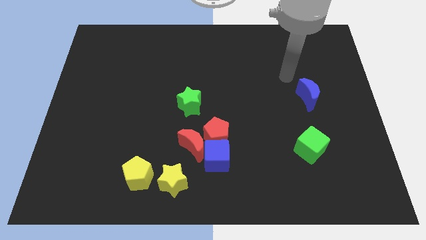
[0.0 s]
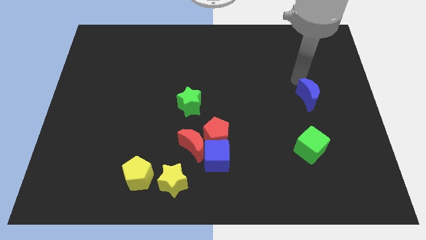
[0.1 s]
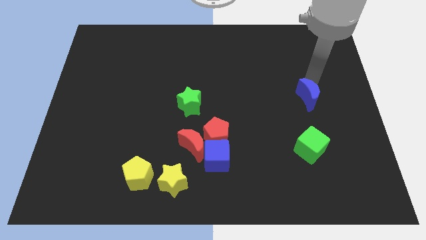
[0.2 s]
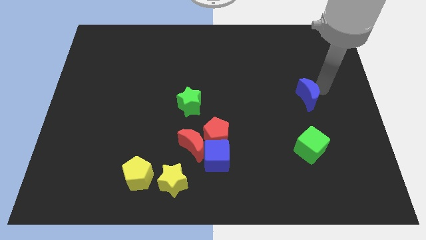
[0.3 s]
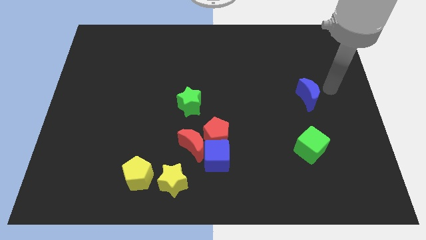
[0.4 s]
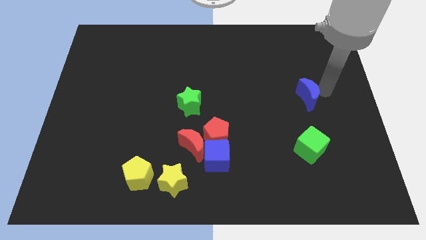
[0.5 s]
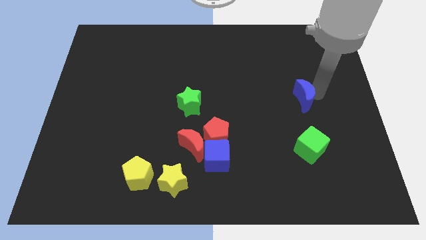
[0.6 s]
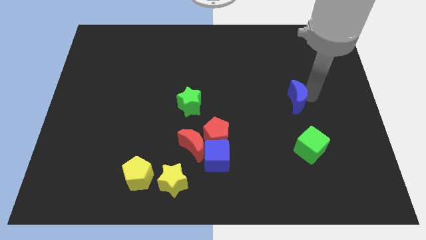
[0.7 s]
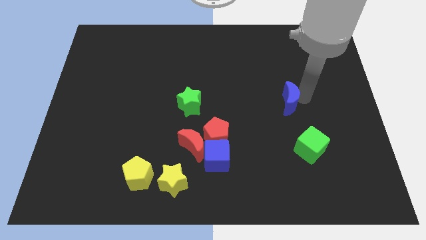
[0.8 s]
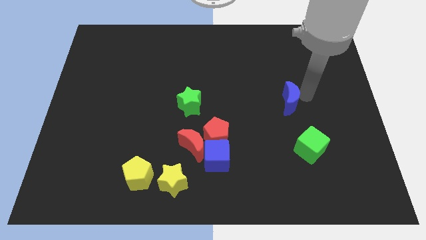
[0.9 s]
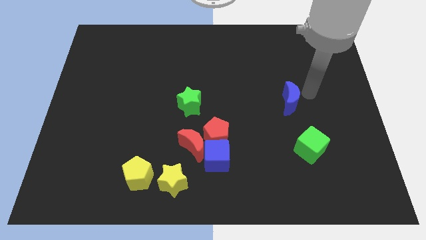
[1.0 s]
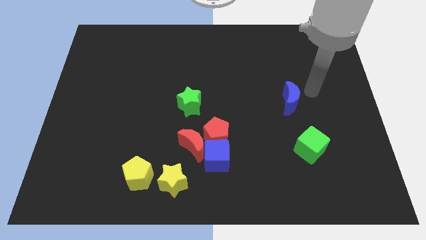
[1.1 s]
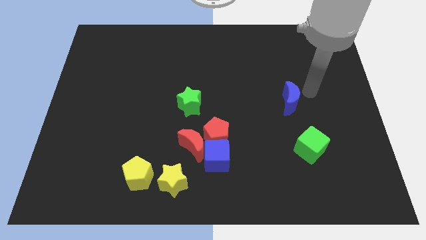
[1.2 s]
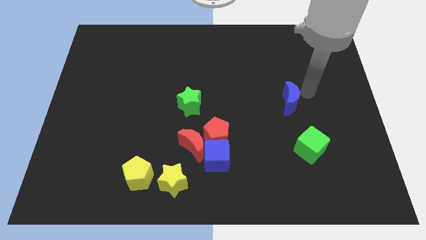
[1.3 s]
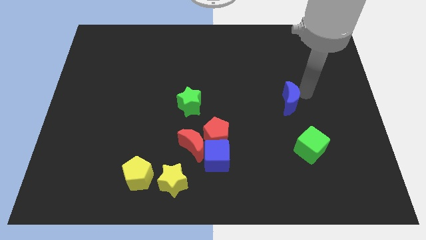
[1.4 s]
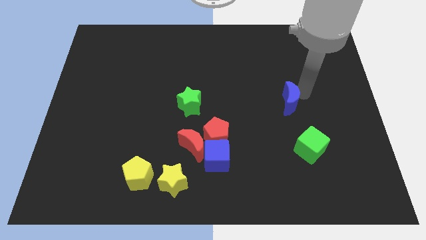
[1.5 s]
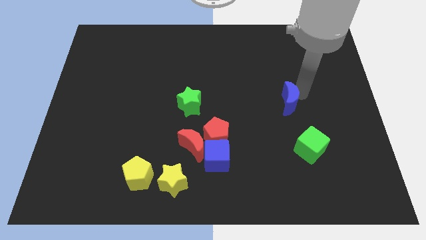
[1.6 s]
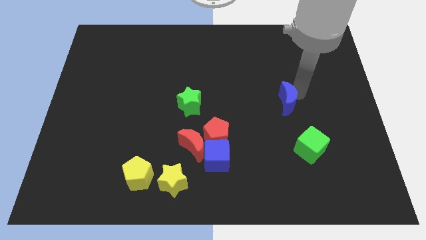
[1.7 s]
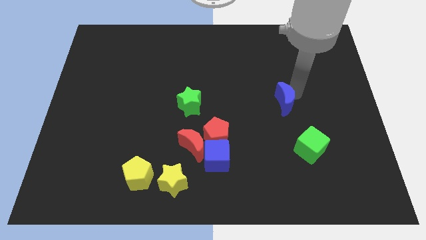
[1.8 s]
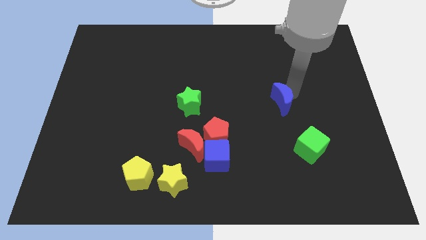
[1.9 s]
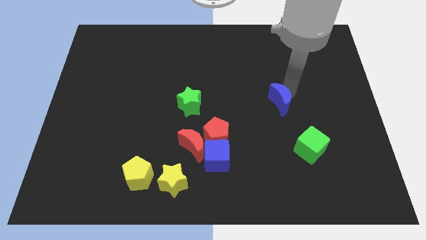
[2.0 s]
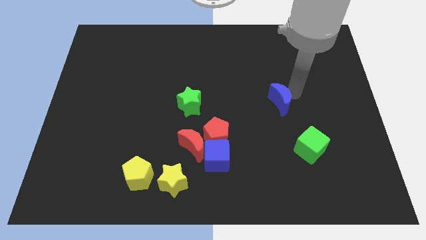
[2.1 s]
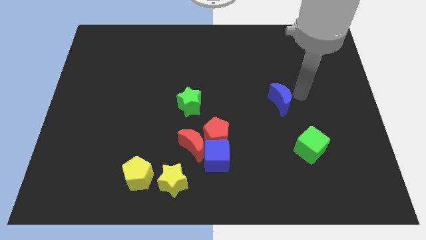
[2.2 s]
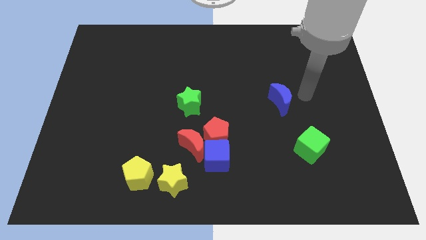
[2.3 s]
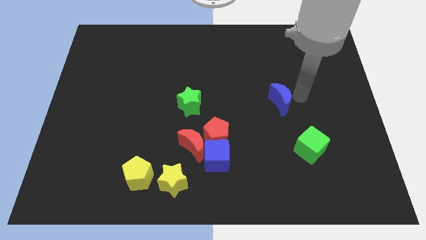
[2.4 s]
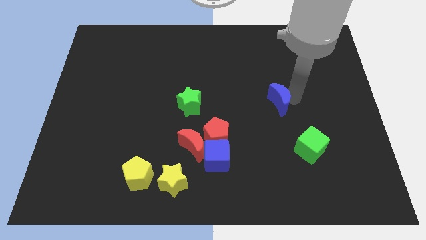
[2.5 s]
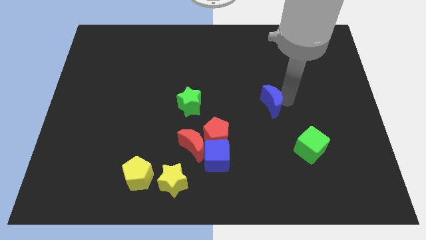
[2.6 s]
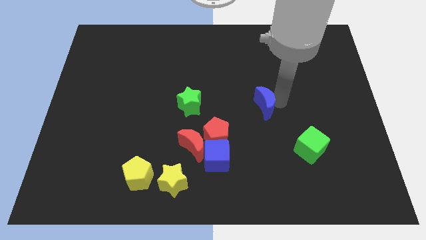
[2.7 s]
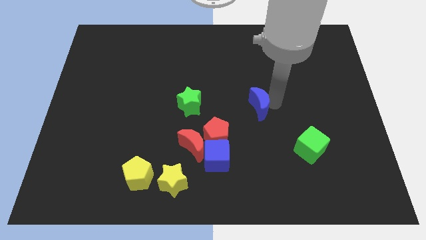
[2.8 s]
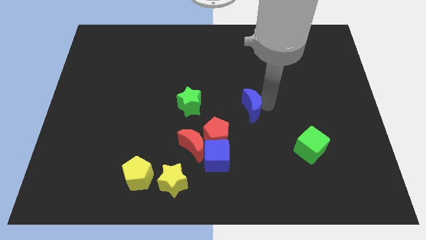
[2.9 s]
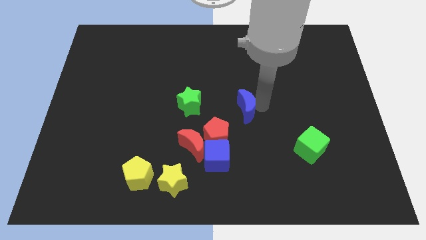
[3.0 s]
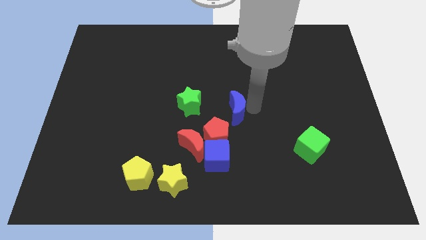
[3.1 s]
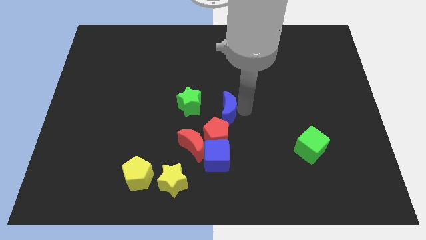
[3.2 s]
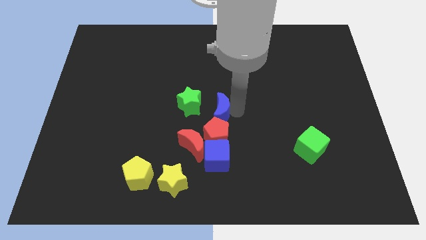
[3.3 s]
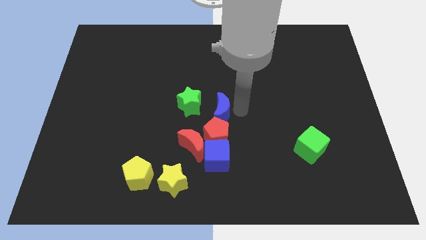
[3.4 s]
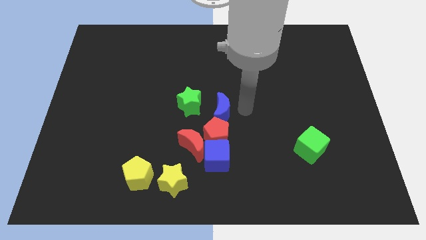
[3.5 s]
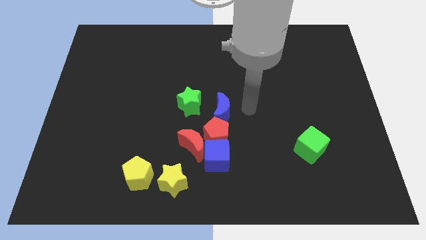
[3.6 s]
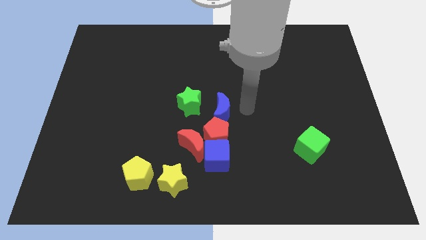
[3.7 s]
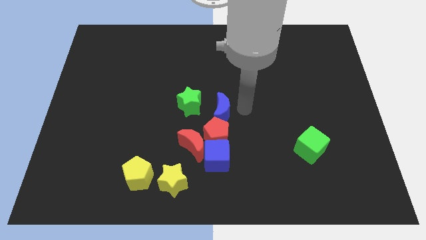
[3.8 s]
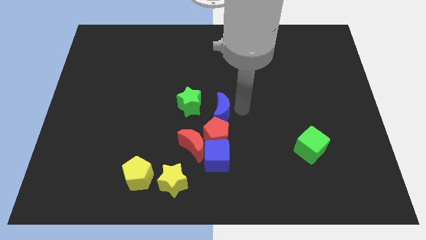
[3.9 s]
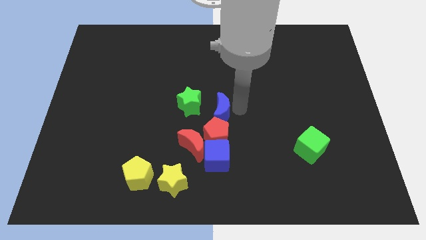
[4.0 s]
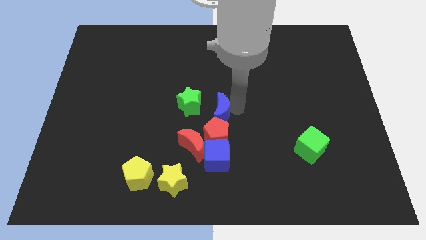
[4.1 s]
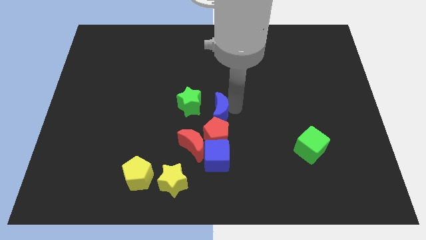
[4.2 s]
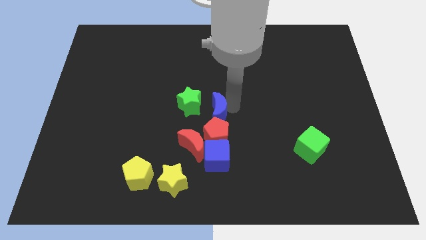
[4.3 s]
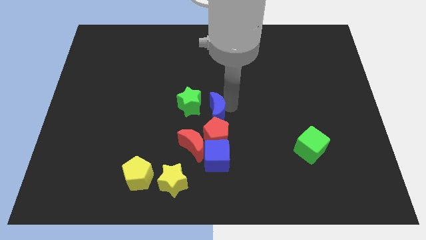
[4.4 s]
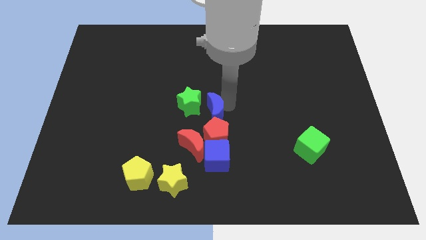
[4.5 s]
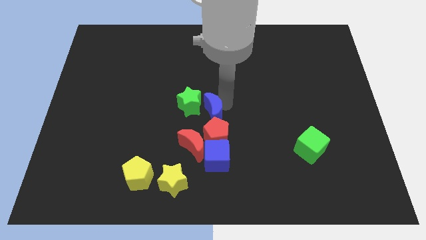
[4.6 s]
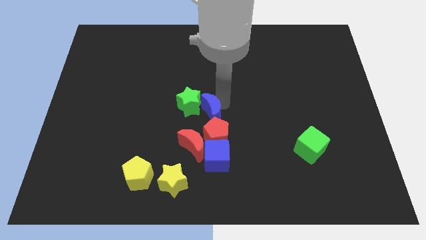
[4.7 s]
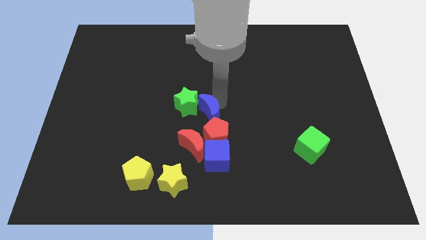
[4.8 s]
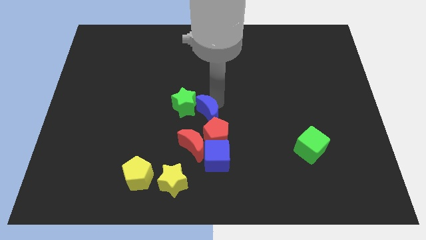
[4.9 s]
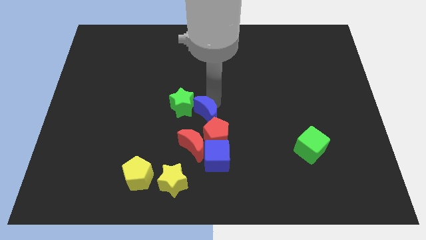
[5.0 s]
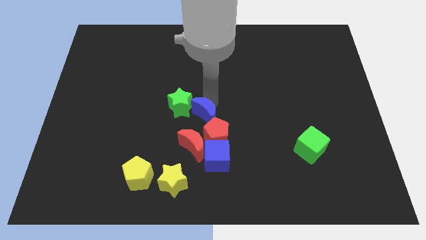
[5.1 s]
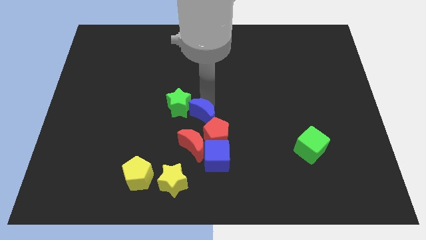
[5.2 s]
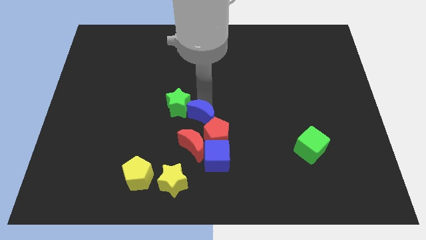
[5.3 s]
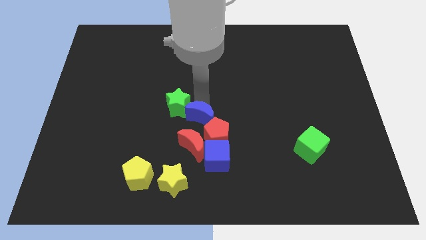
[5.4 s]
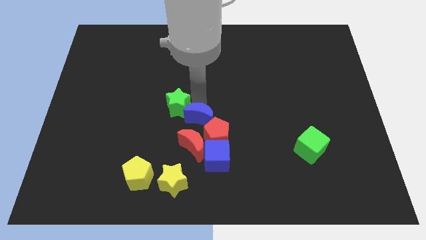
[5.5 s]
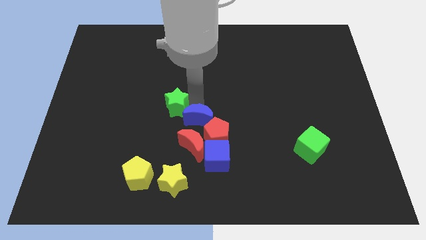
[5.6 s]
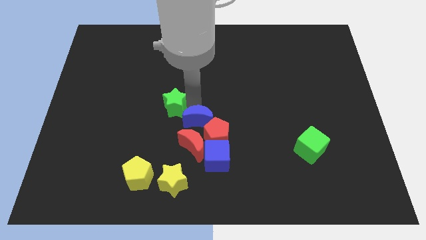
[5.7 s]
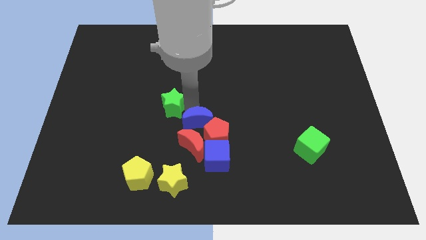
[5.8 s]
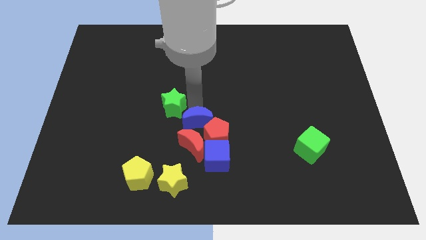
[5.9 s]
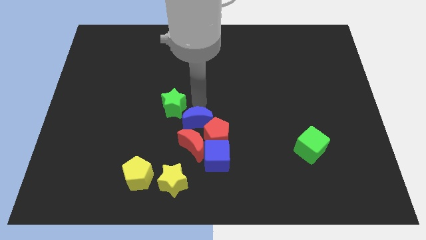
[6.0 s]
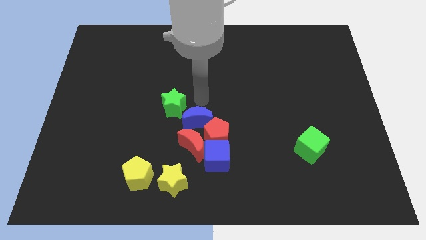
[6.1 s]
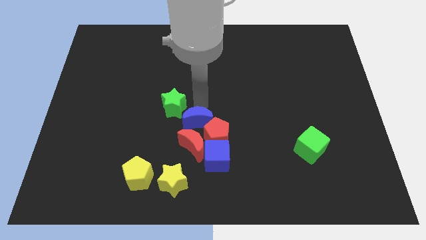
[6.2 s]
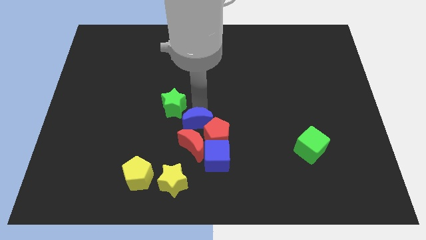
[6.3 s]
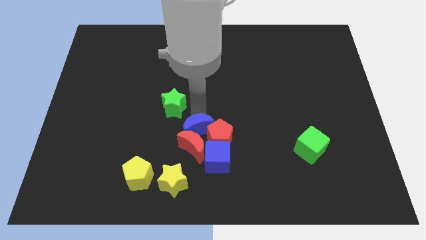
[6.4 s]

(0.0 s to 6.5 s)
put the blue moon close to the red moon

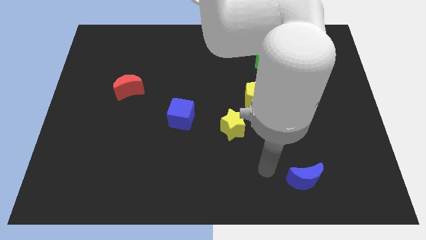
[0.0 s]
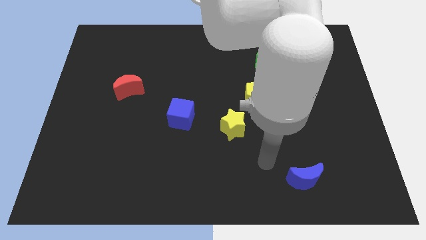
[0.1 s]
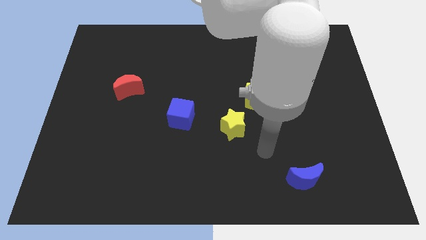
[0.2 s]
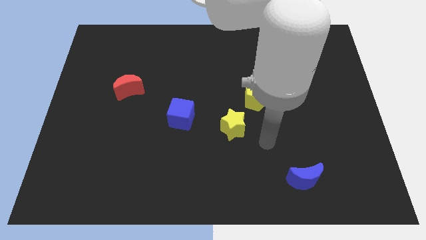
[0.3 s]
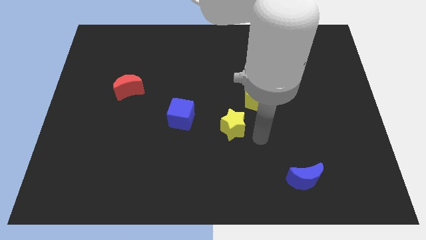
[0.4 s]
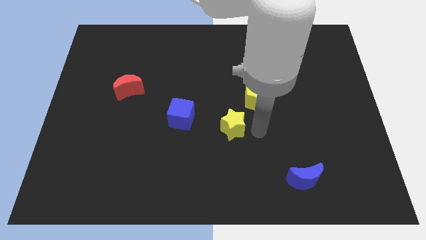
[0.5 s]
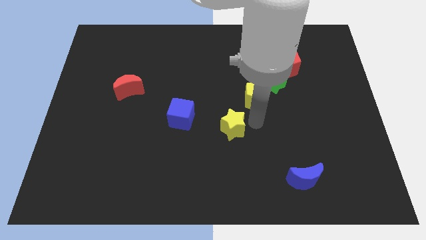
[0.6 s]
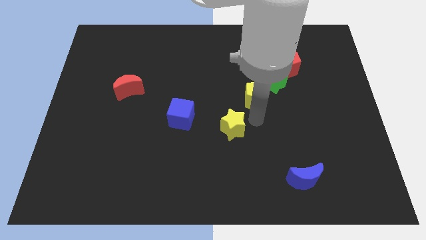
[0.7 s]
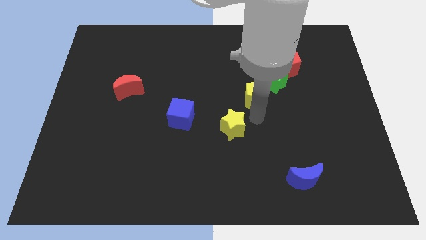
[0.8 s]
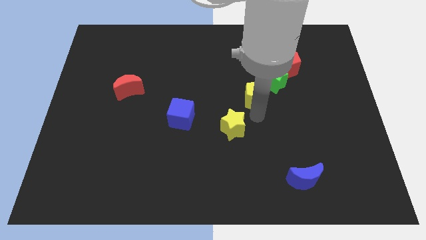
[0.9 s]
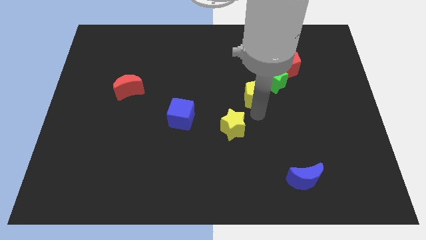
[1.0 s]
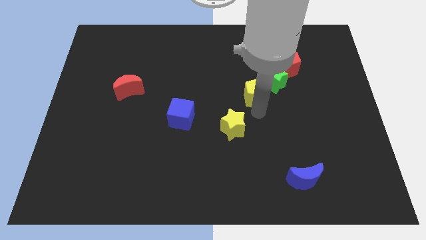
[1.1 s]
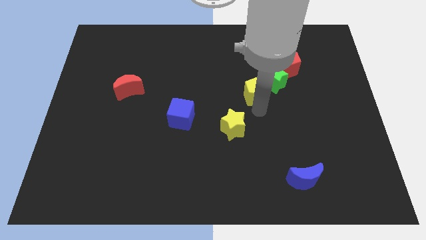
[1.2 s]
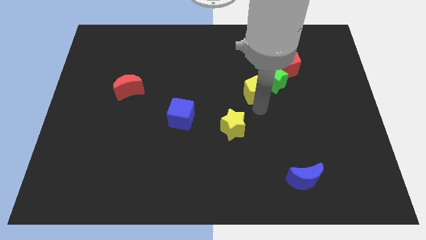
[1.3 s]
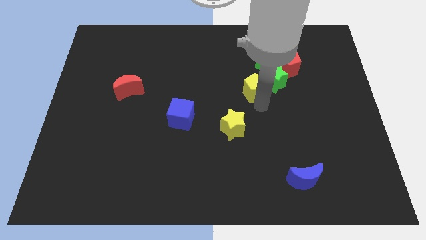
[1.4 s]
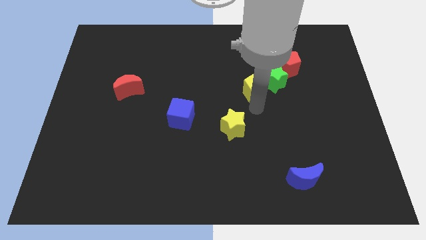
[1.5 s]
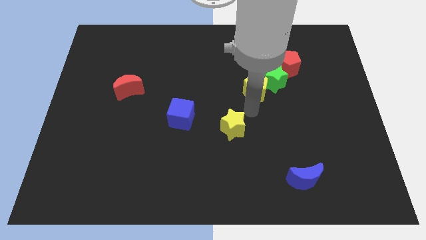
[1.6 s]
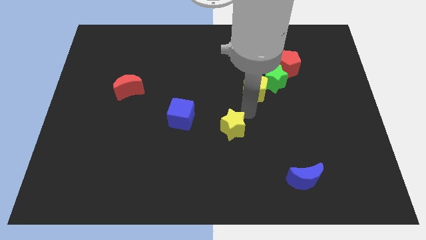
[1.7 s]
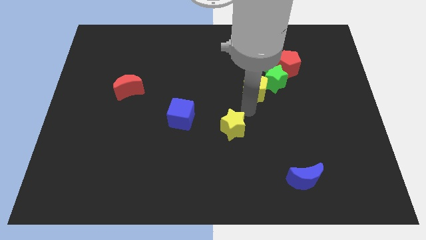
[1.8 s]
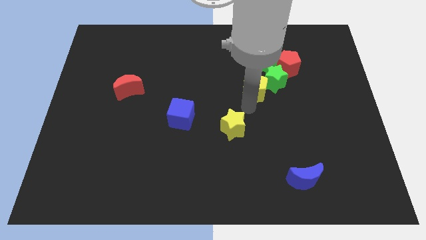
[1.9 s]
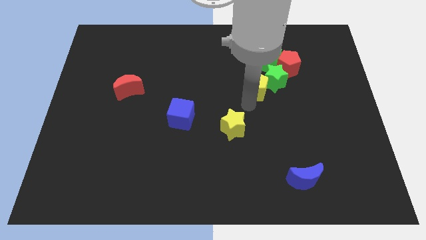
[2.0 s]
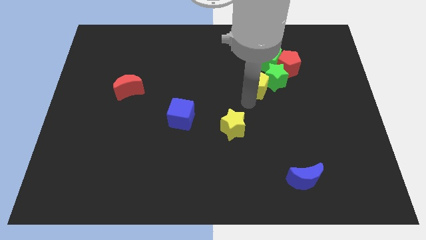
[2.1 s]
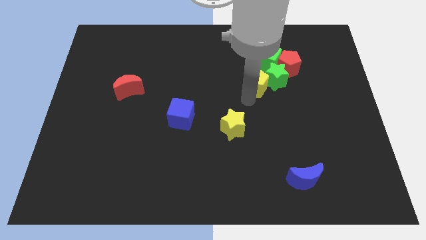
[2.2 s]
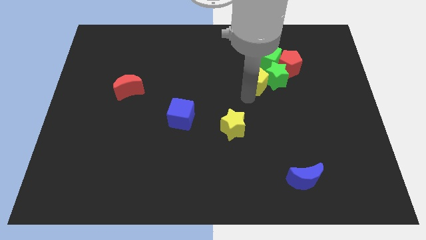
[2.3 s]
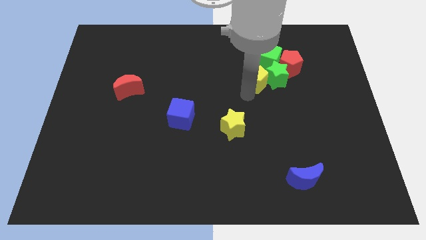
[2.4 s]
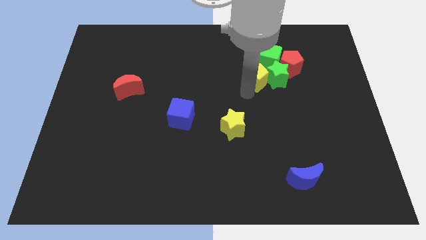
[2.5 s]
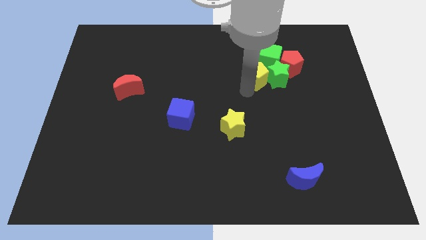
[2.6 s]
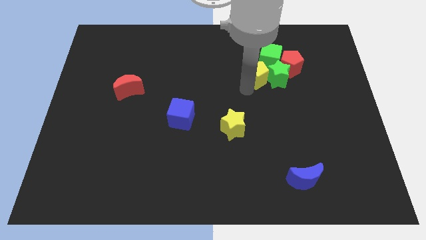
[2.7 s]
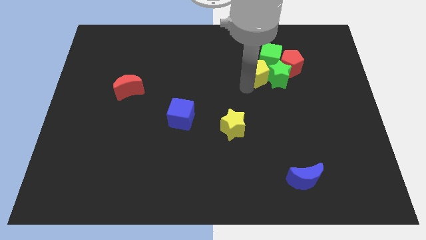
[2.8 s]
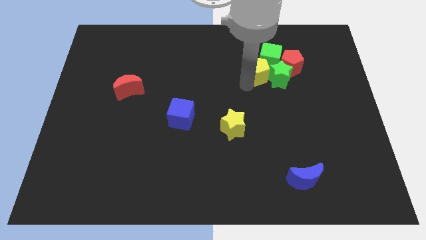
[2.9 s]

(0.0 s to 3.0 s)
push the yellow pentagon towards the green cube
